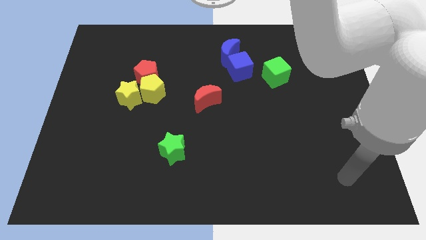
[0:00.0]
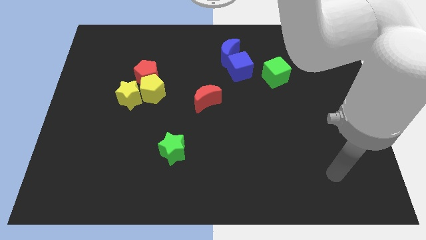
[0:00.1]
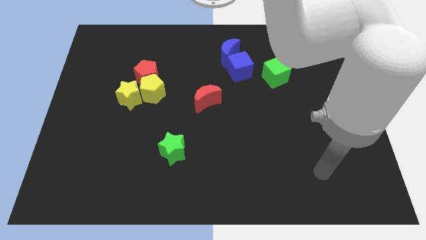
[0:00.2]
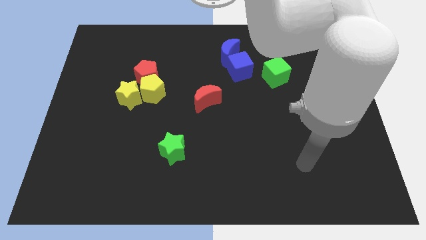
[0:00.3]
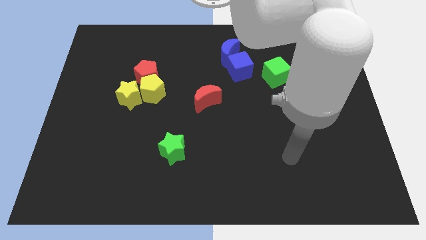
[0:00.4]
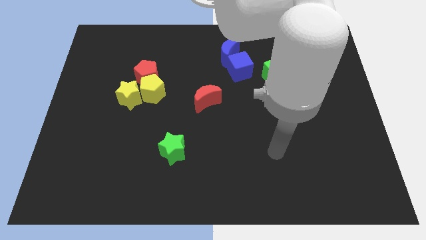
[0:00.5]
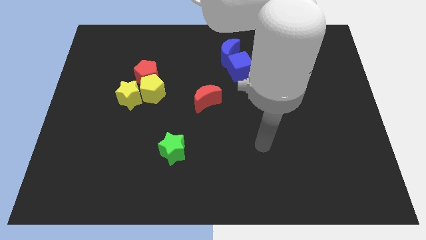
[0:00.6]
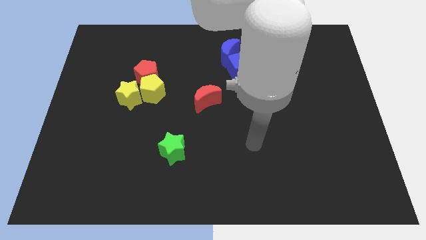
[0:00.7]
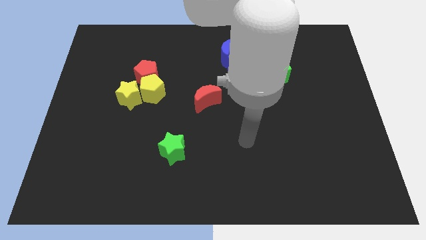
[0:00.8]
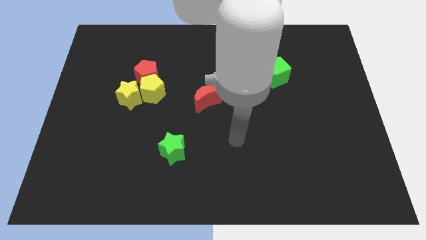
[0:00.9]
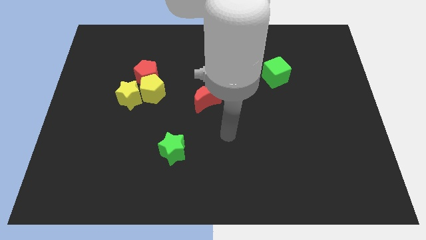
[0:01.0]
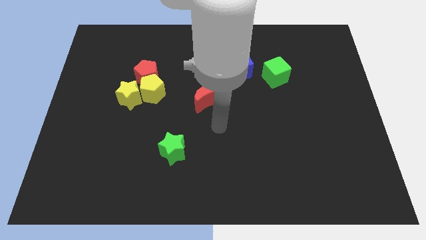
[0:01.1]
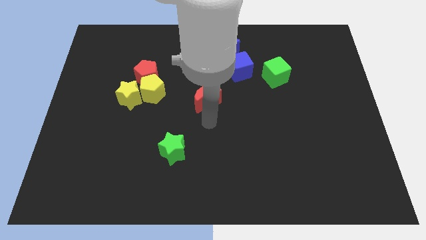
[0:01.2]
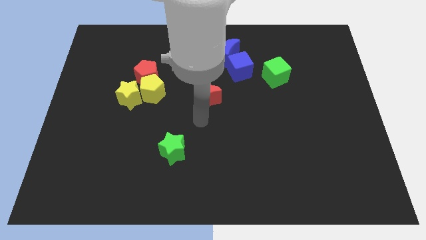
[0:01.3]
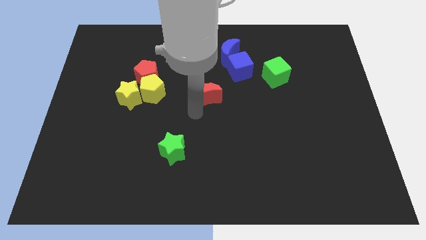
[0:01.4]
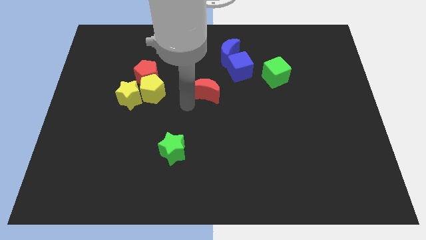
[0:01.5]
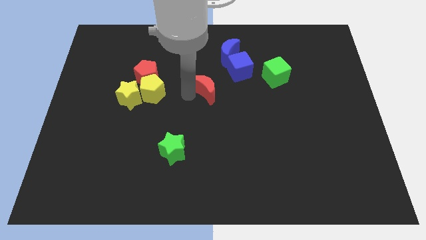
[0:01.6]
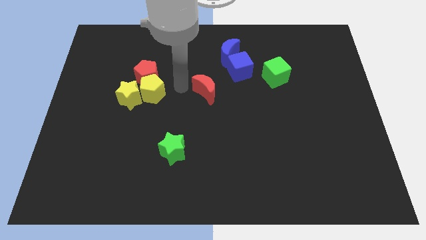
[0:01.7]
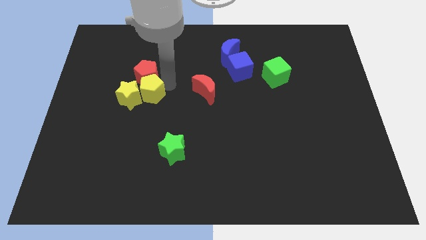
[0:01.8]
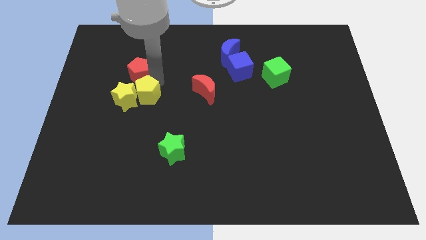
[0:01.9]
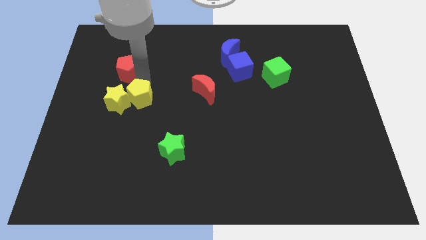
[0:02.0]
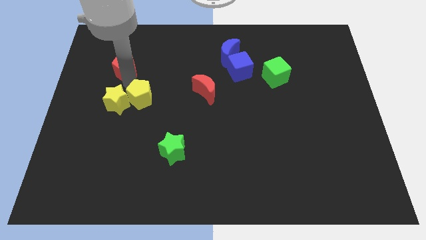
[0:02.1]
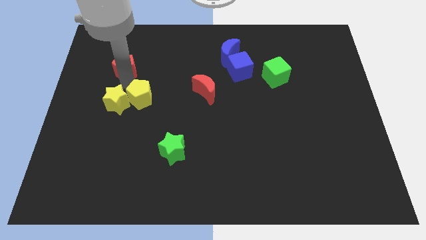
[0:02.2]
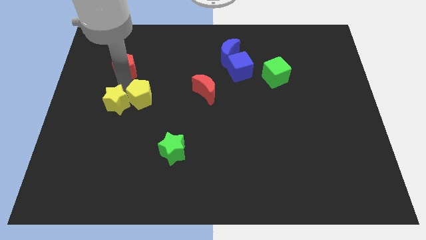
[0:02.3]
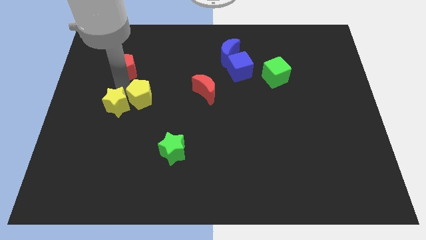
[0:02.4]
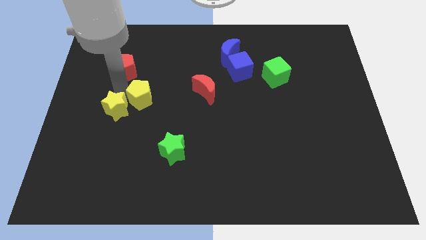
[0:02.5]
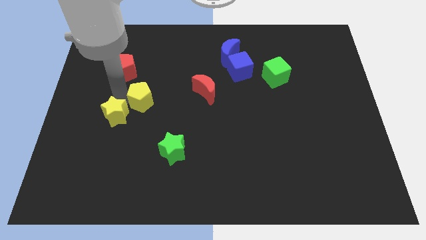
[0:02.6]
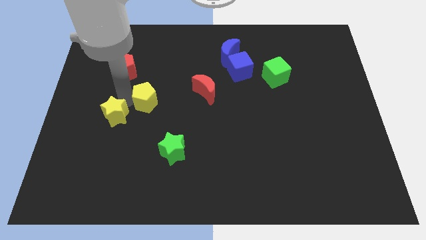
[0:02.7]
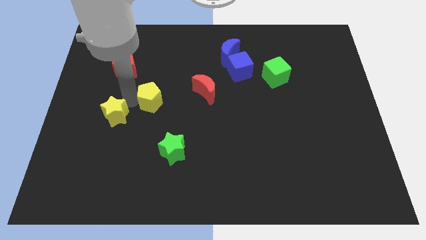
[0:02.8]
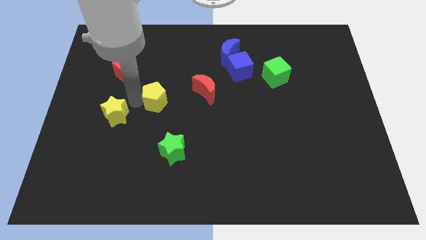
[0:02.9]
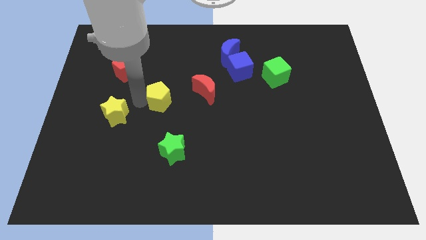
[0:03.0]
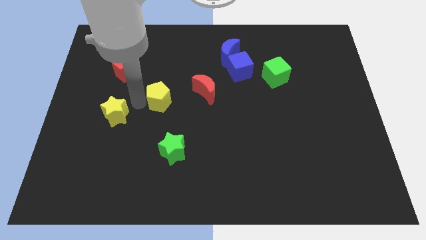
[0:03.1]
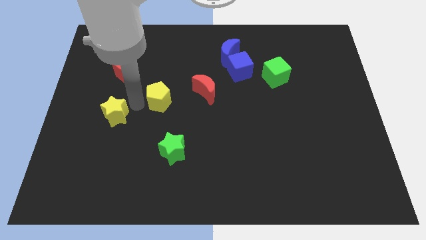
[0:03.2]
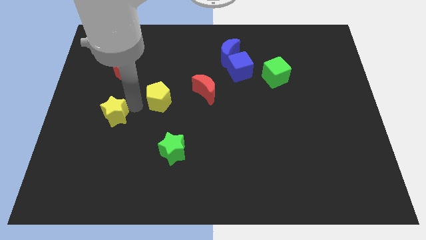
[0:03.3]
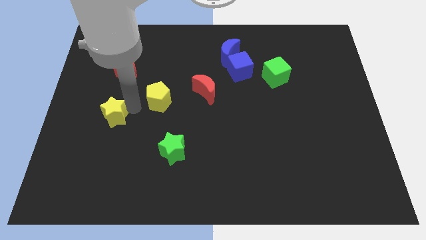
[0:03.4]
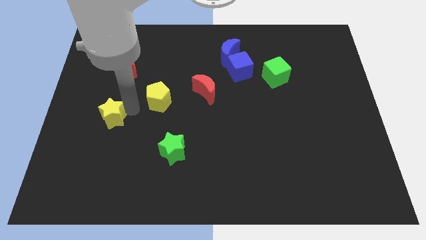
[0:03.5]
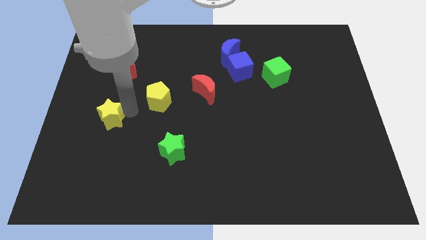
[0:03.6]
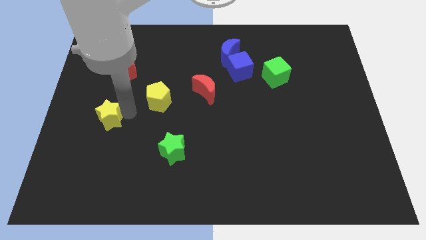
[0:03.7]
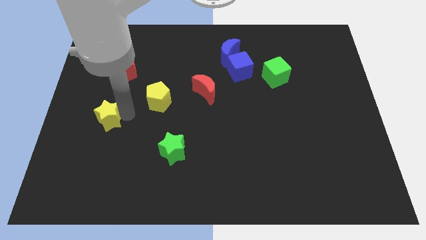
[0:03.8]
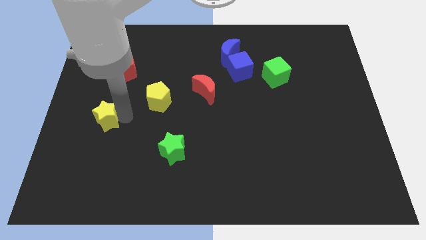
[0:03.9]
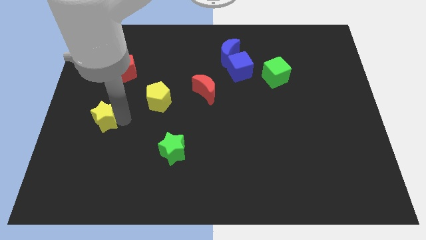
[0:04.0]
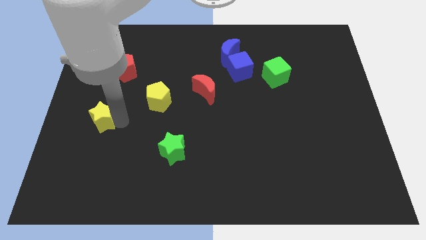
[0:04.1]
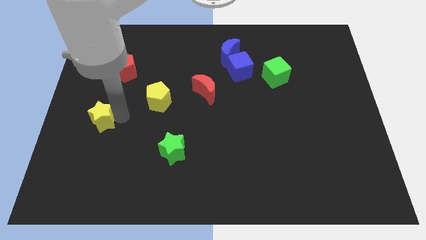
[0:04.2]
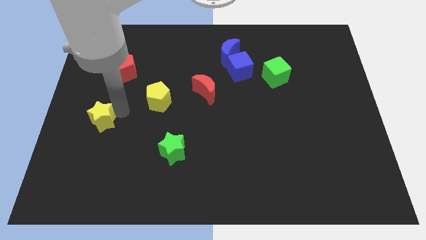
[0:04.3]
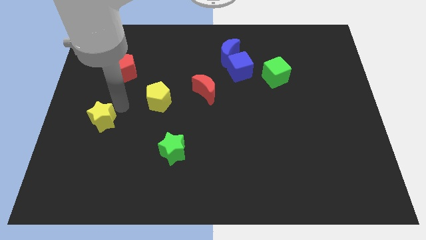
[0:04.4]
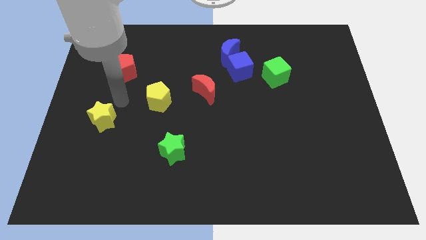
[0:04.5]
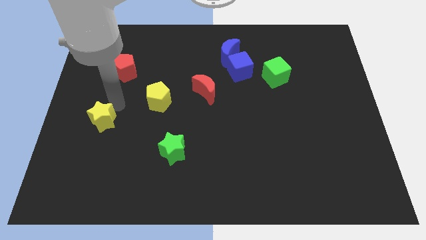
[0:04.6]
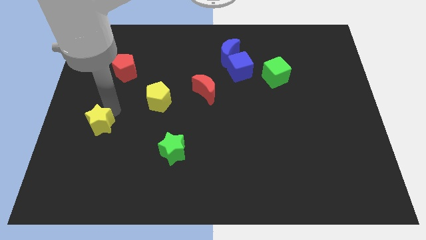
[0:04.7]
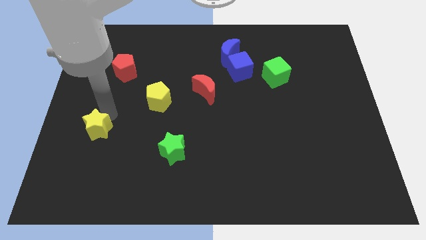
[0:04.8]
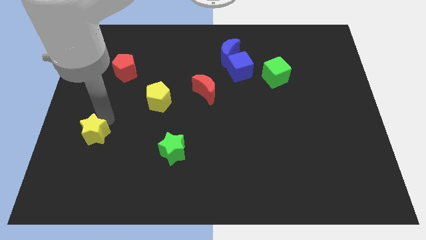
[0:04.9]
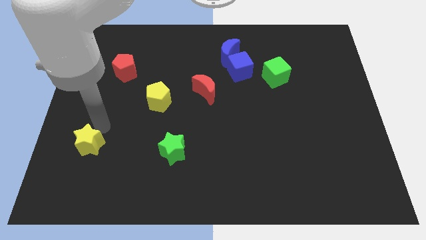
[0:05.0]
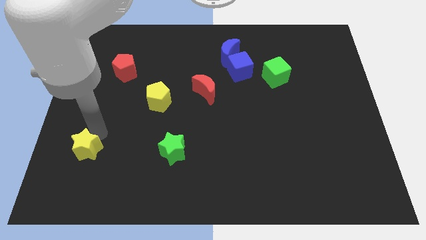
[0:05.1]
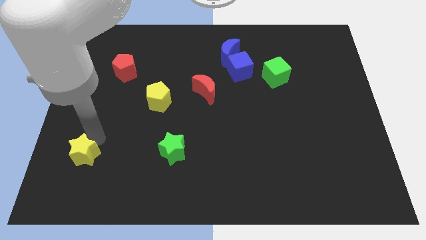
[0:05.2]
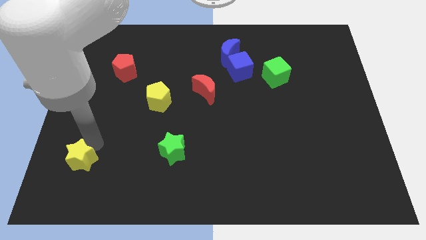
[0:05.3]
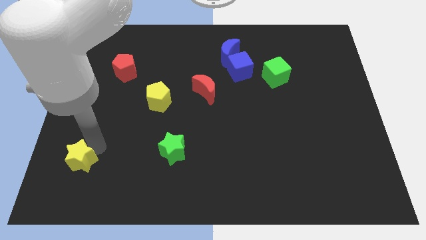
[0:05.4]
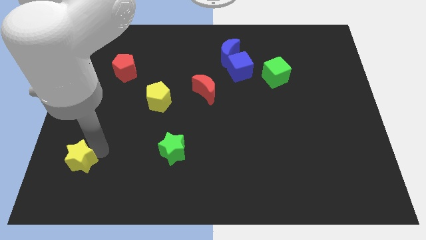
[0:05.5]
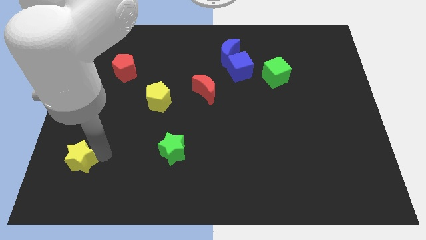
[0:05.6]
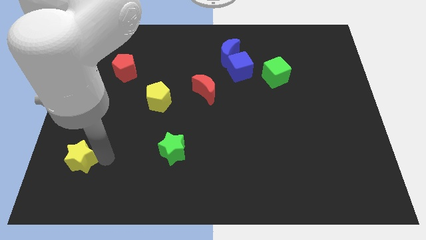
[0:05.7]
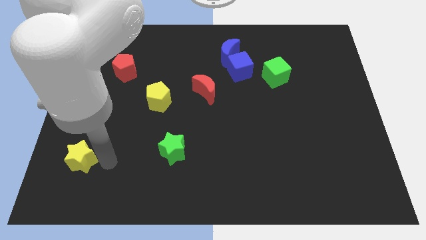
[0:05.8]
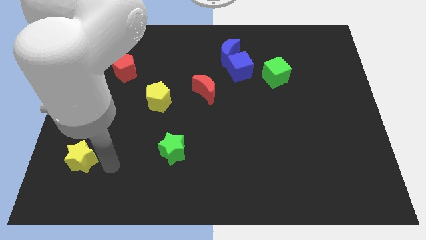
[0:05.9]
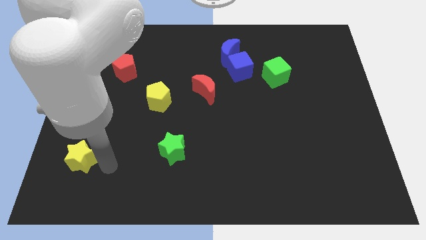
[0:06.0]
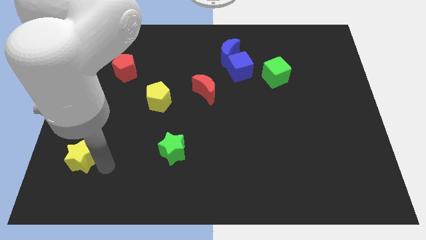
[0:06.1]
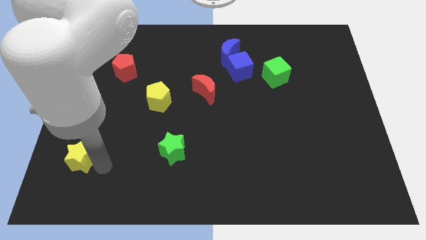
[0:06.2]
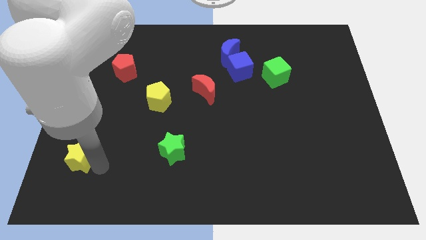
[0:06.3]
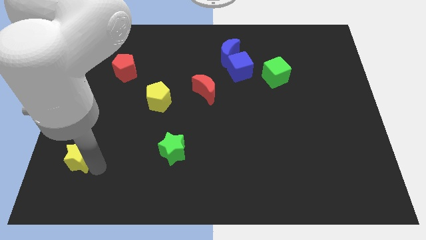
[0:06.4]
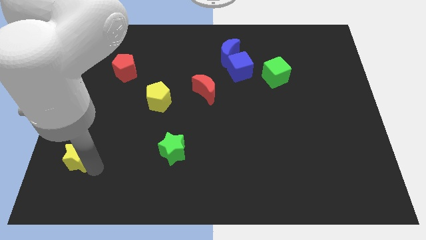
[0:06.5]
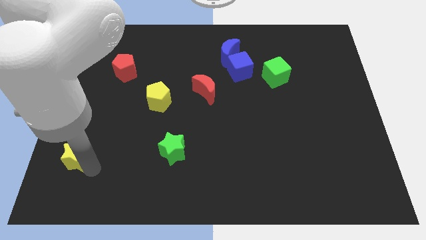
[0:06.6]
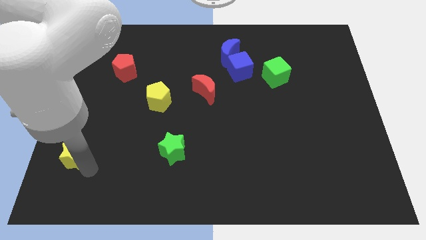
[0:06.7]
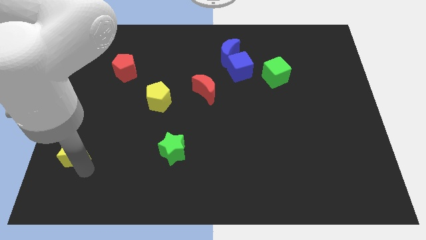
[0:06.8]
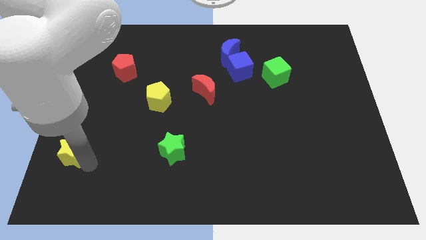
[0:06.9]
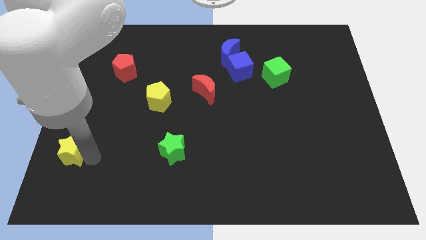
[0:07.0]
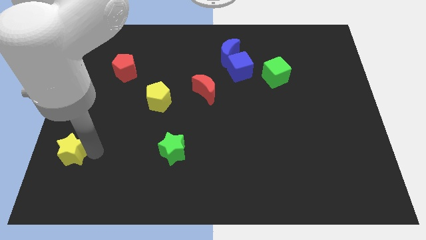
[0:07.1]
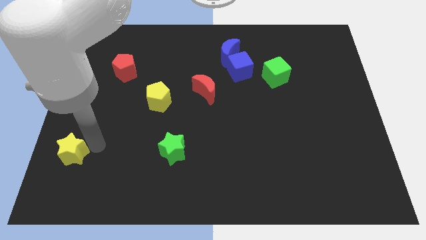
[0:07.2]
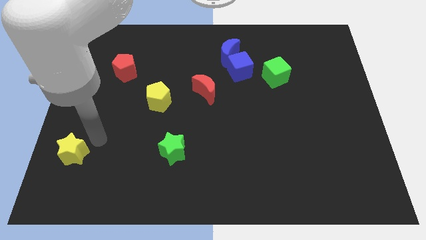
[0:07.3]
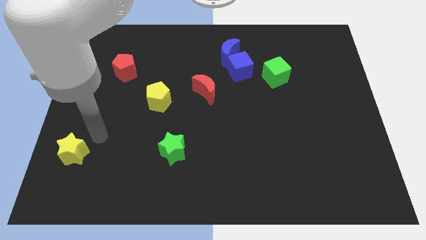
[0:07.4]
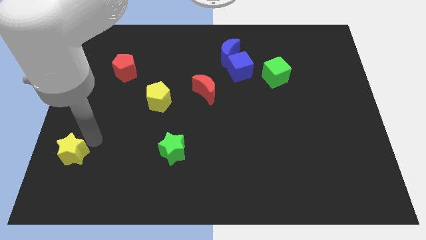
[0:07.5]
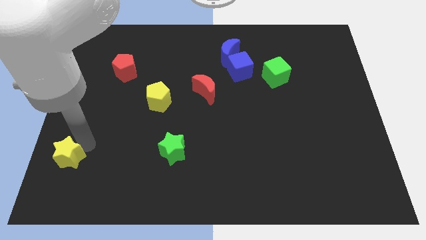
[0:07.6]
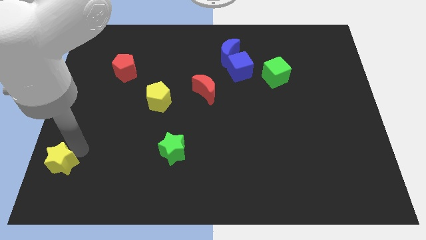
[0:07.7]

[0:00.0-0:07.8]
put the yellow star to the bottom left
